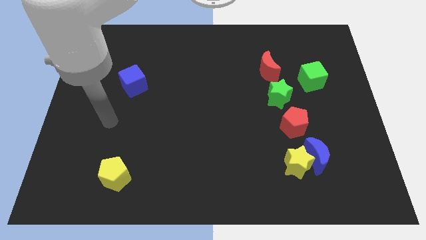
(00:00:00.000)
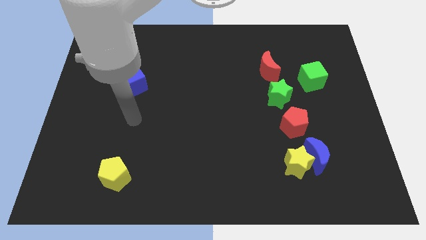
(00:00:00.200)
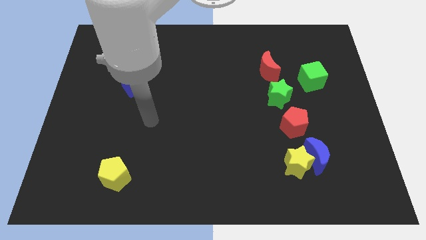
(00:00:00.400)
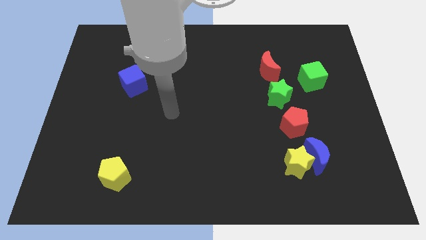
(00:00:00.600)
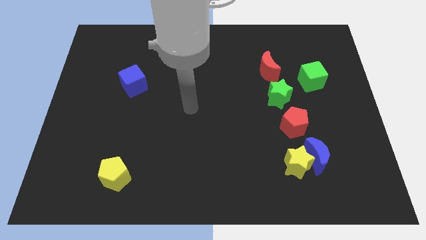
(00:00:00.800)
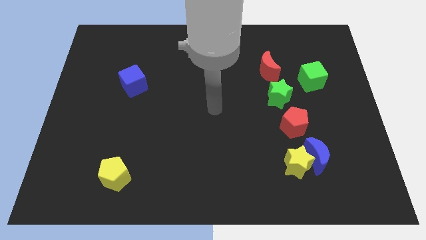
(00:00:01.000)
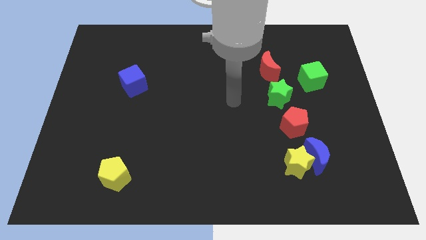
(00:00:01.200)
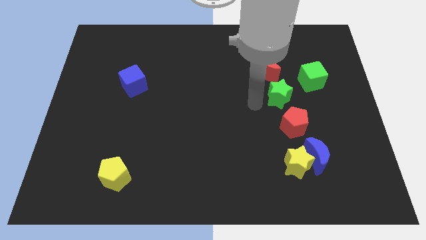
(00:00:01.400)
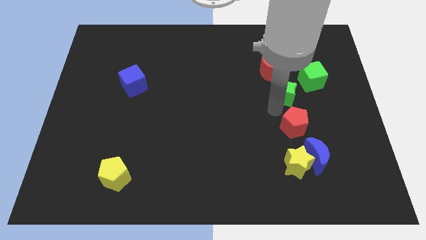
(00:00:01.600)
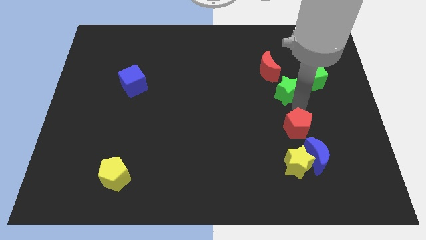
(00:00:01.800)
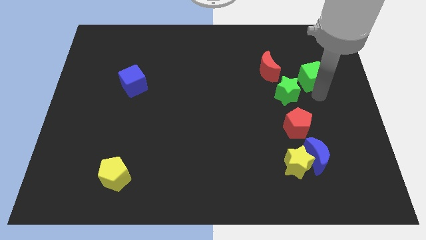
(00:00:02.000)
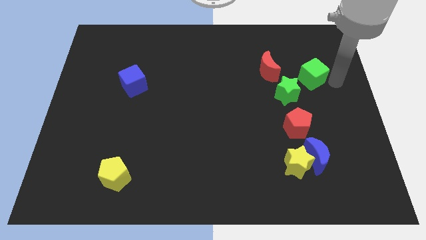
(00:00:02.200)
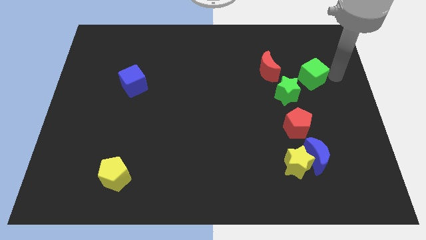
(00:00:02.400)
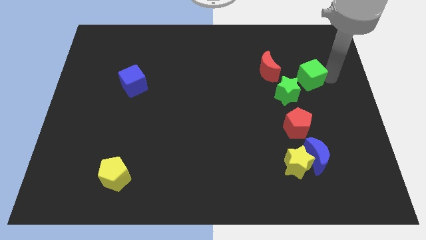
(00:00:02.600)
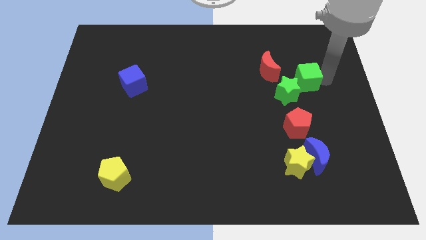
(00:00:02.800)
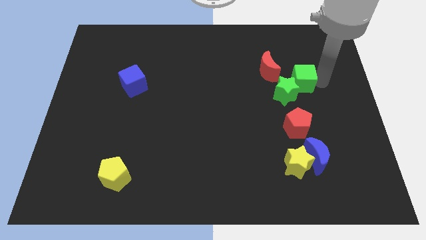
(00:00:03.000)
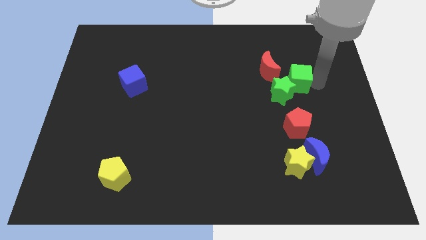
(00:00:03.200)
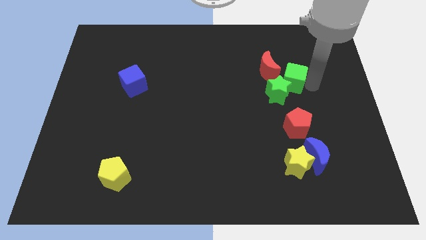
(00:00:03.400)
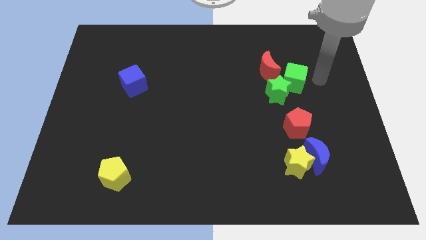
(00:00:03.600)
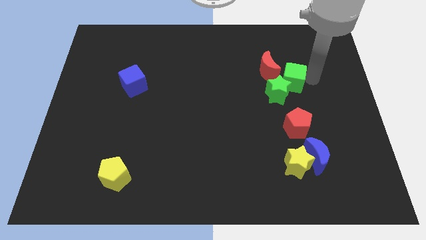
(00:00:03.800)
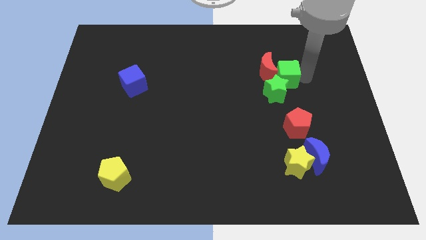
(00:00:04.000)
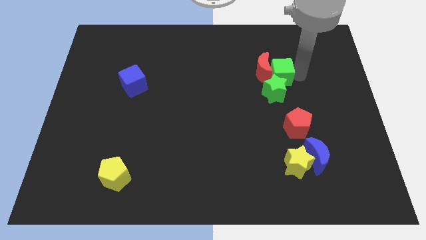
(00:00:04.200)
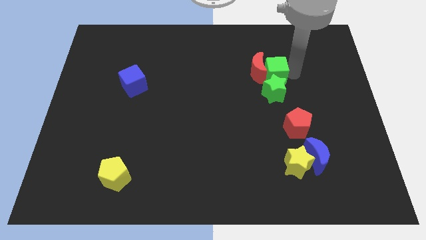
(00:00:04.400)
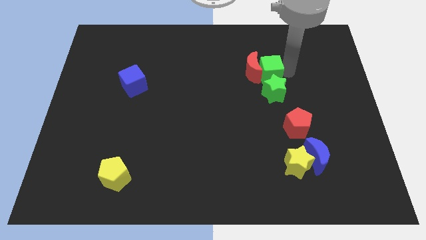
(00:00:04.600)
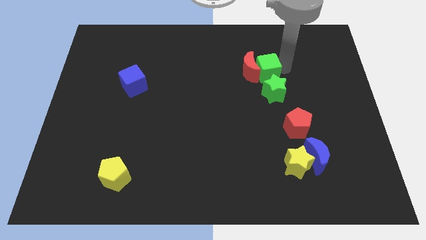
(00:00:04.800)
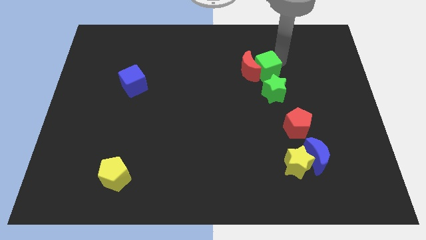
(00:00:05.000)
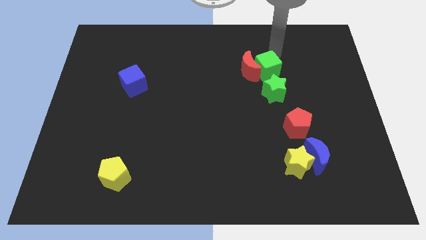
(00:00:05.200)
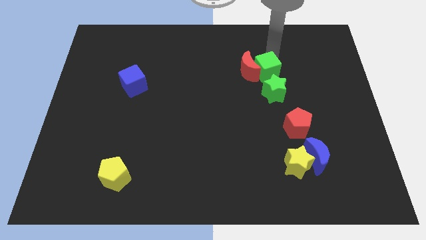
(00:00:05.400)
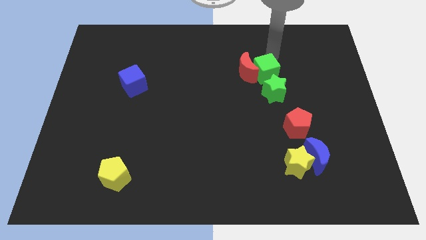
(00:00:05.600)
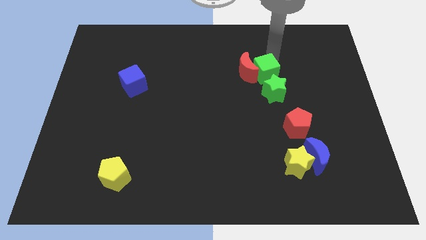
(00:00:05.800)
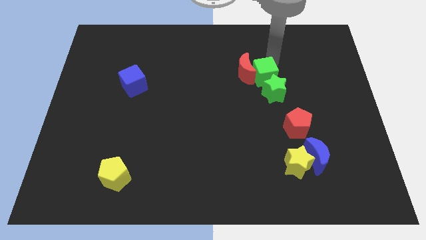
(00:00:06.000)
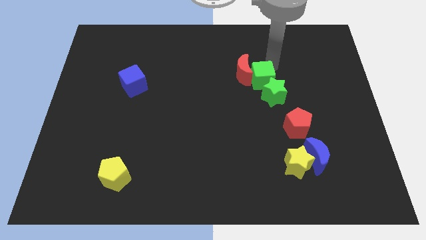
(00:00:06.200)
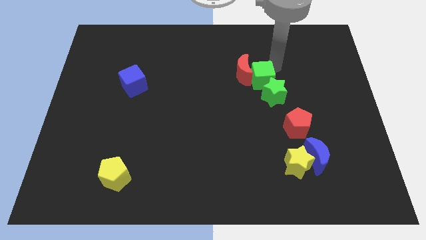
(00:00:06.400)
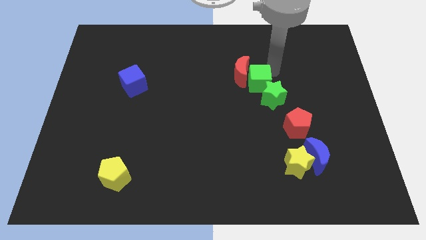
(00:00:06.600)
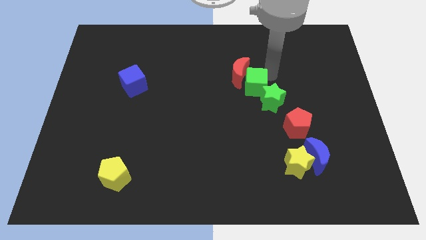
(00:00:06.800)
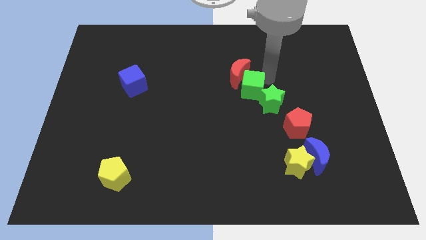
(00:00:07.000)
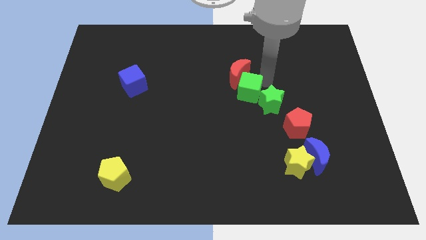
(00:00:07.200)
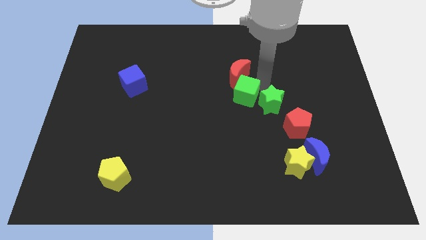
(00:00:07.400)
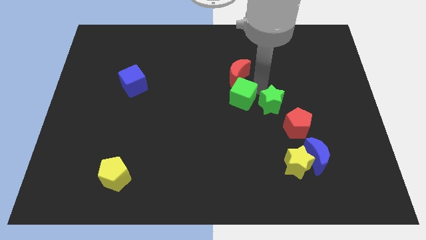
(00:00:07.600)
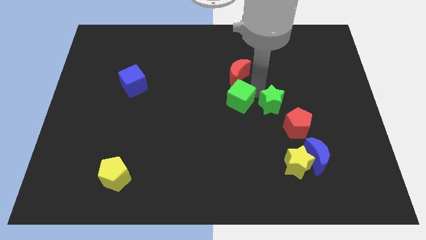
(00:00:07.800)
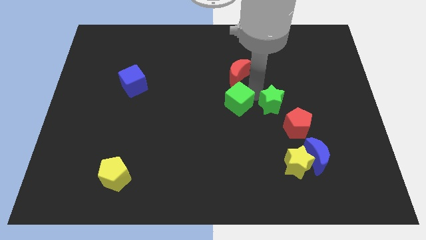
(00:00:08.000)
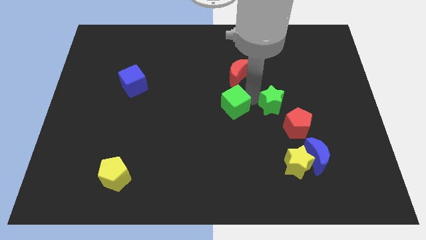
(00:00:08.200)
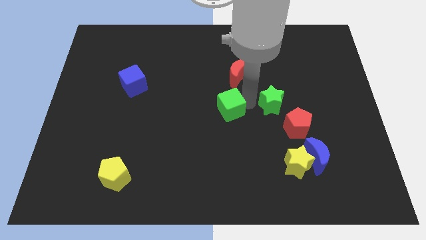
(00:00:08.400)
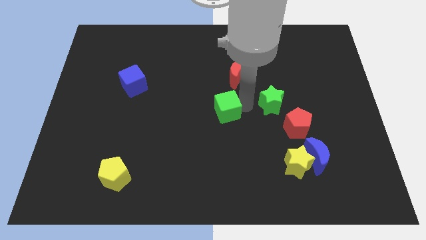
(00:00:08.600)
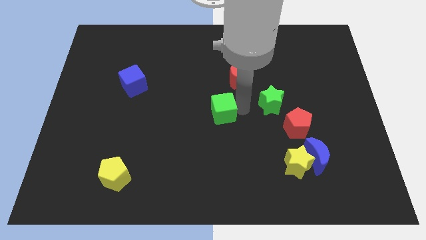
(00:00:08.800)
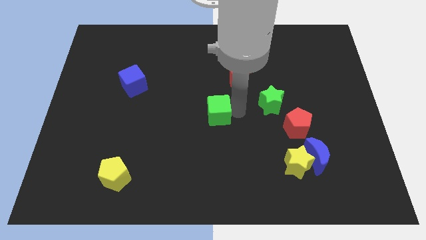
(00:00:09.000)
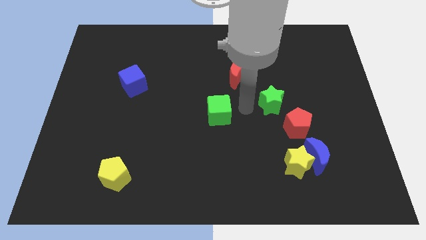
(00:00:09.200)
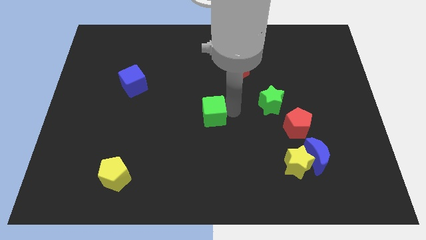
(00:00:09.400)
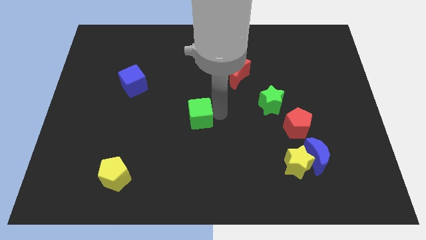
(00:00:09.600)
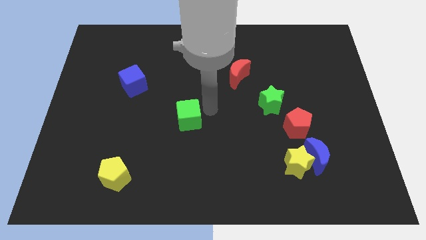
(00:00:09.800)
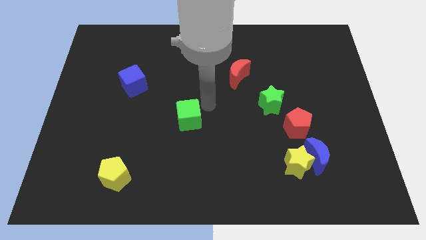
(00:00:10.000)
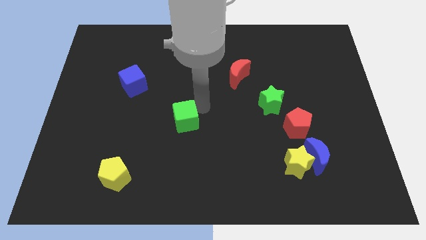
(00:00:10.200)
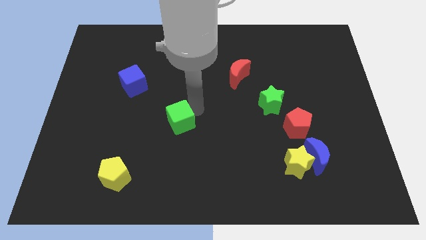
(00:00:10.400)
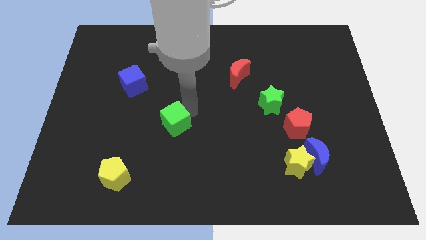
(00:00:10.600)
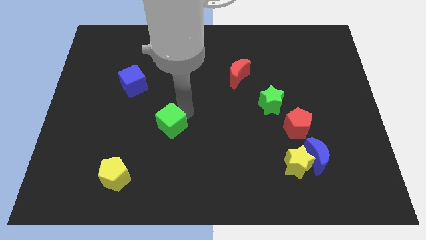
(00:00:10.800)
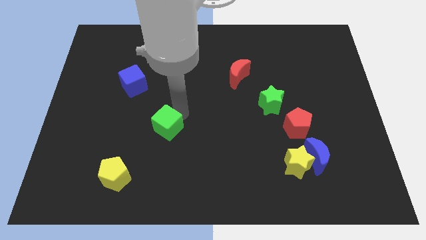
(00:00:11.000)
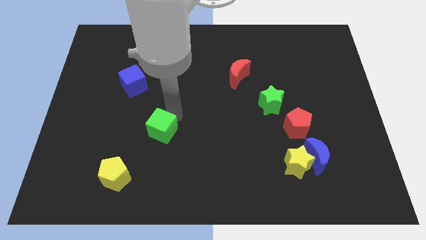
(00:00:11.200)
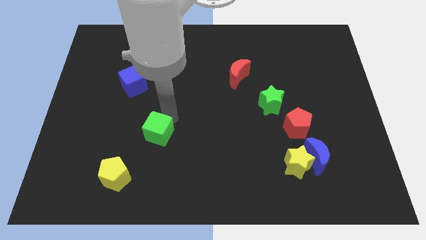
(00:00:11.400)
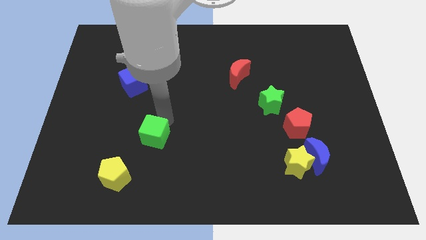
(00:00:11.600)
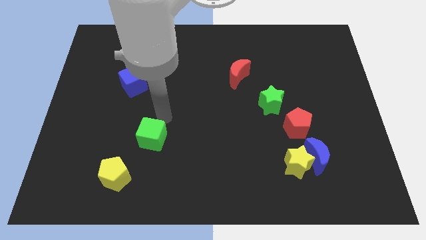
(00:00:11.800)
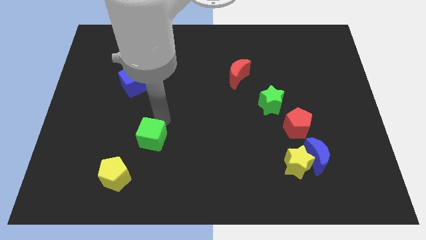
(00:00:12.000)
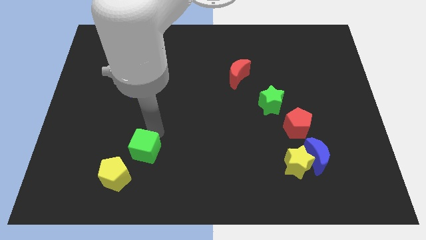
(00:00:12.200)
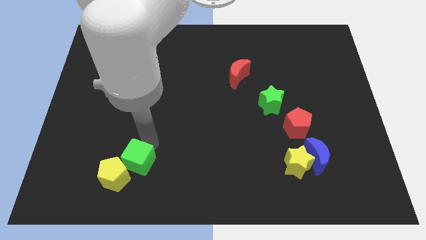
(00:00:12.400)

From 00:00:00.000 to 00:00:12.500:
slide the green cube to the yellow pentagon

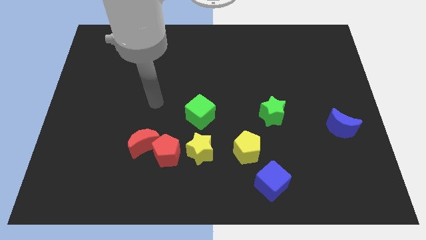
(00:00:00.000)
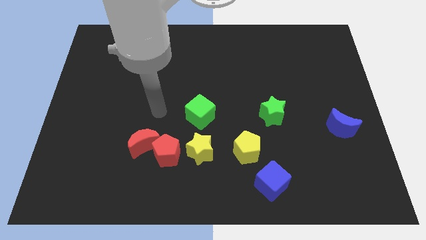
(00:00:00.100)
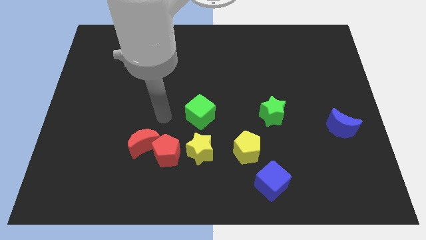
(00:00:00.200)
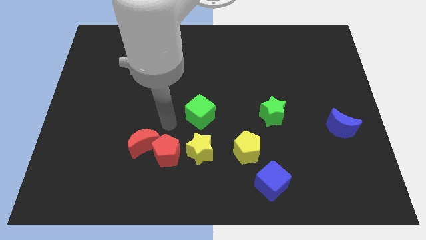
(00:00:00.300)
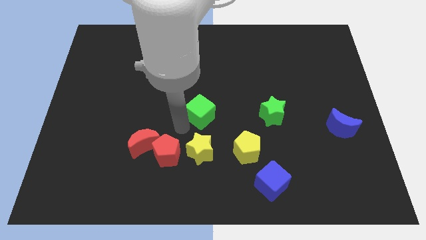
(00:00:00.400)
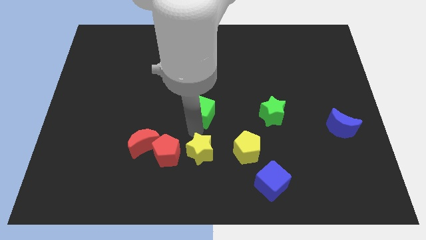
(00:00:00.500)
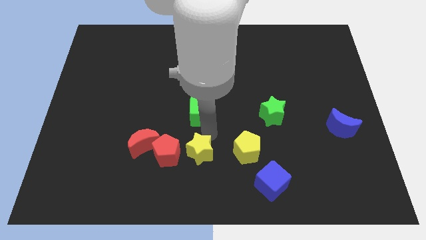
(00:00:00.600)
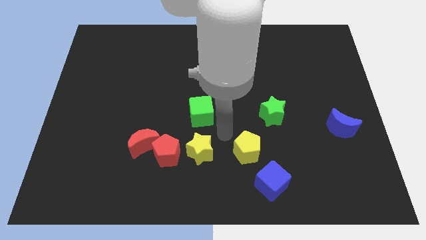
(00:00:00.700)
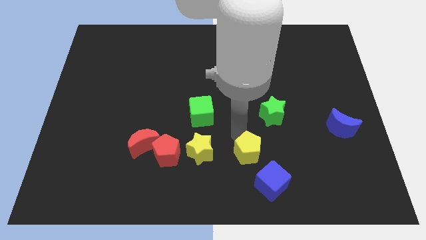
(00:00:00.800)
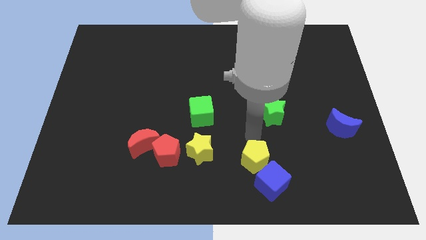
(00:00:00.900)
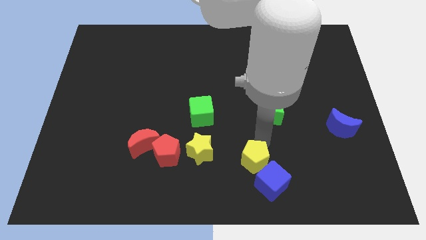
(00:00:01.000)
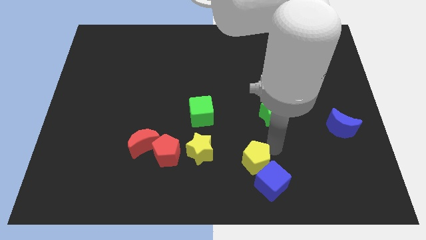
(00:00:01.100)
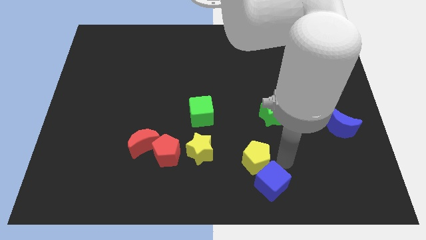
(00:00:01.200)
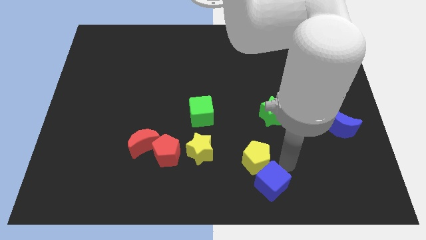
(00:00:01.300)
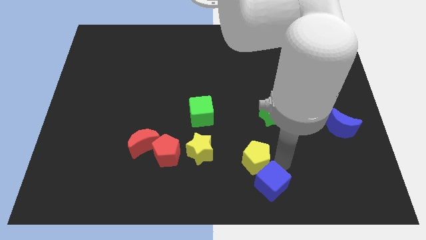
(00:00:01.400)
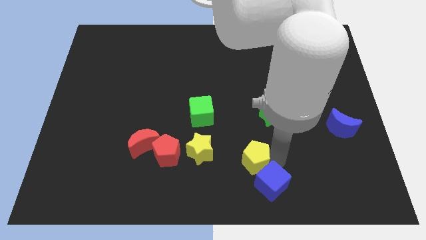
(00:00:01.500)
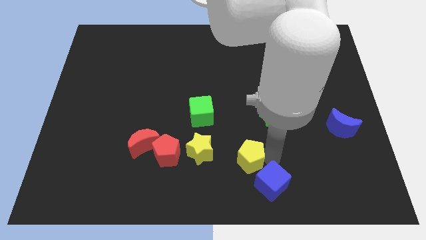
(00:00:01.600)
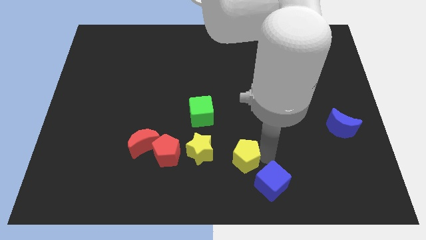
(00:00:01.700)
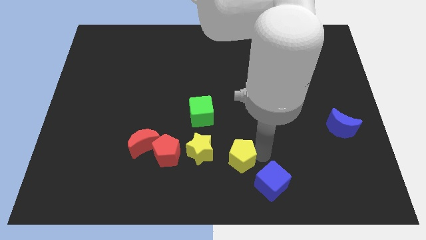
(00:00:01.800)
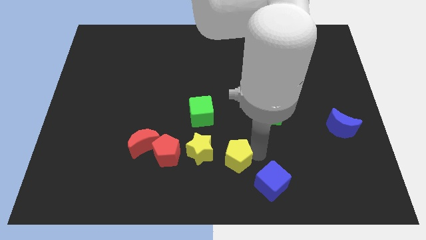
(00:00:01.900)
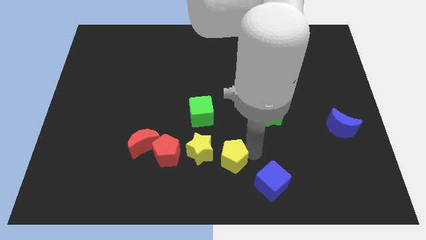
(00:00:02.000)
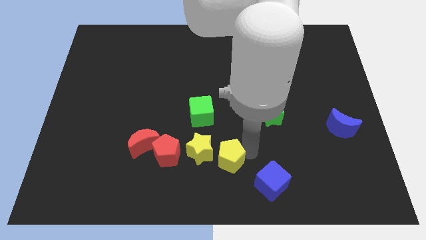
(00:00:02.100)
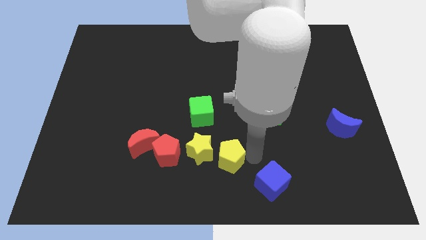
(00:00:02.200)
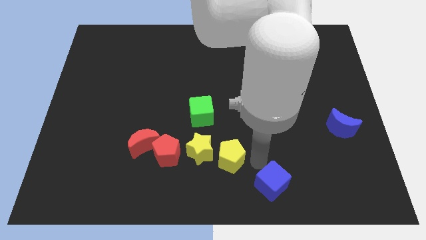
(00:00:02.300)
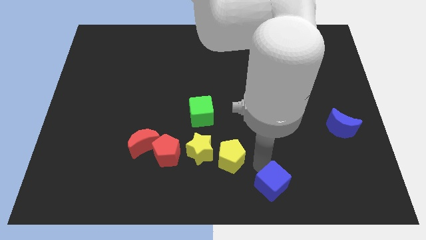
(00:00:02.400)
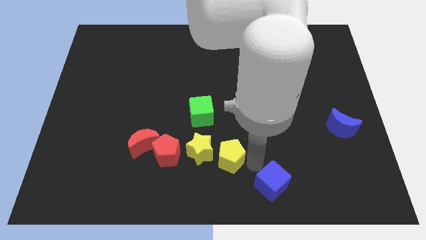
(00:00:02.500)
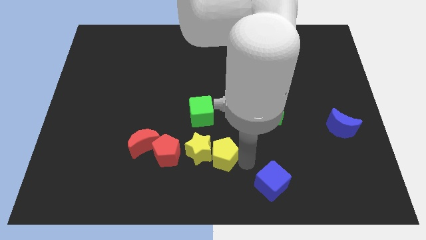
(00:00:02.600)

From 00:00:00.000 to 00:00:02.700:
put the yellow pentagon close to the yellow star
